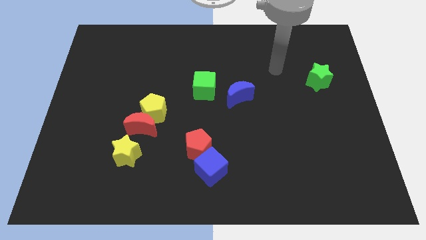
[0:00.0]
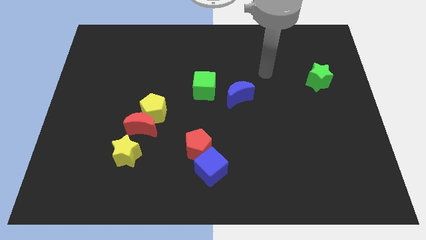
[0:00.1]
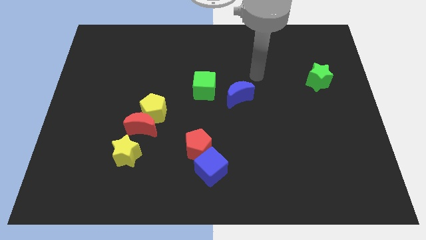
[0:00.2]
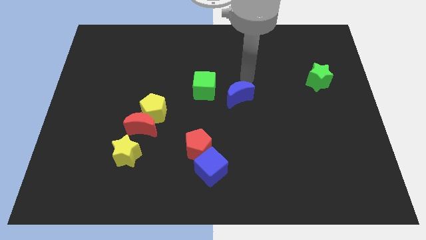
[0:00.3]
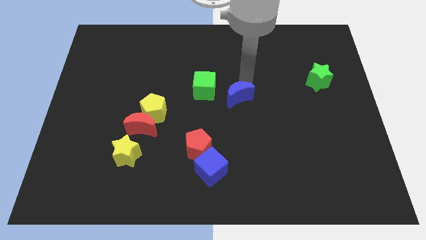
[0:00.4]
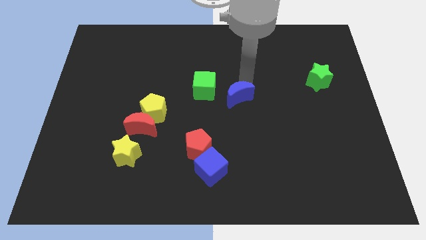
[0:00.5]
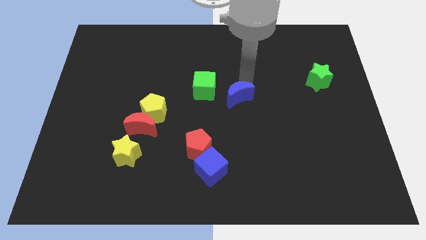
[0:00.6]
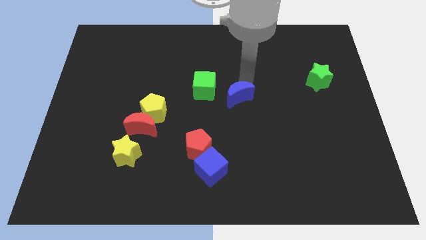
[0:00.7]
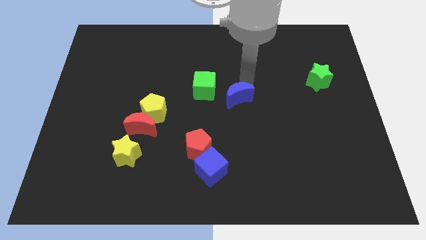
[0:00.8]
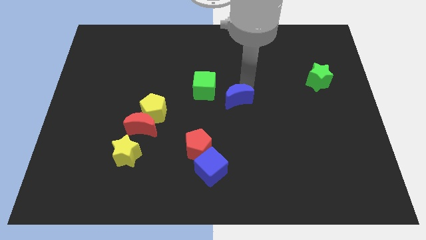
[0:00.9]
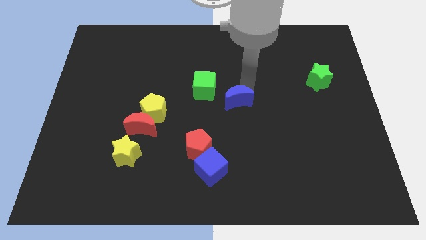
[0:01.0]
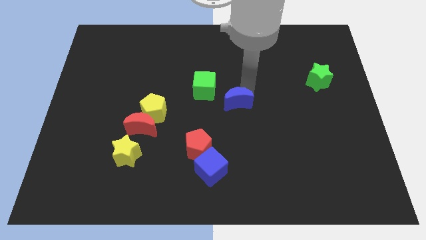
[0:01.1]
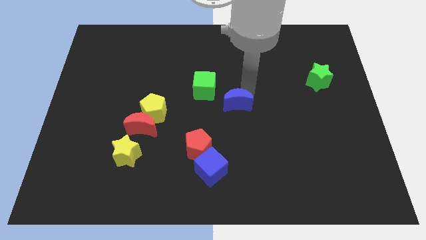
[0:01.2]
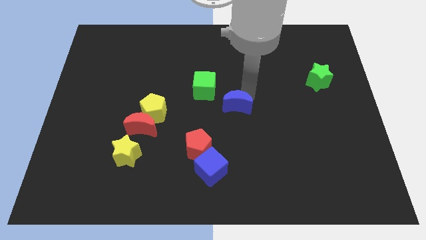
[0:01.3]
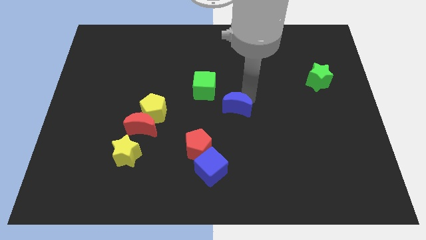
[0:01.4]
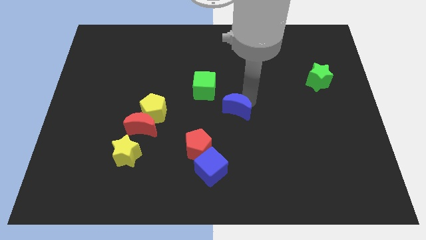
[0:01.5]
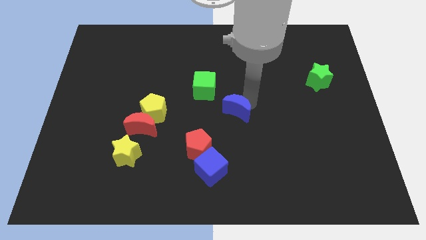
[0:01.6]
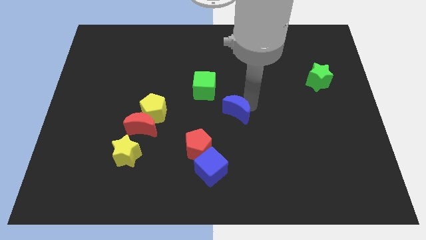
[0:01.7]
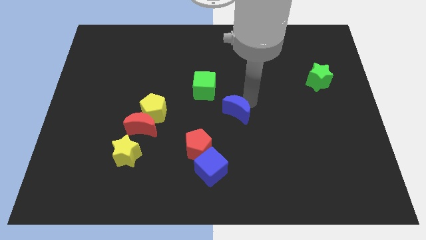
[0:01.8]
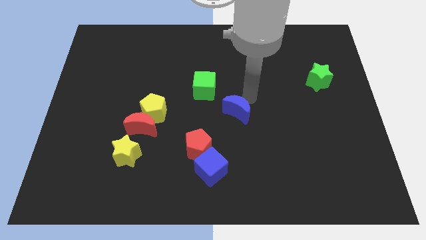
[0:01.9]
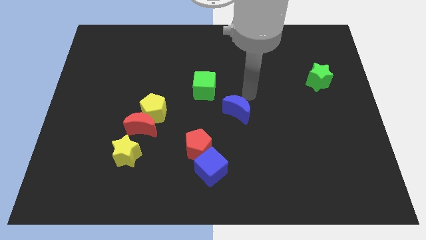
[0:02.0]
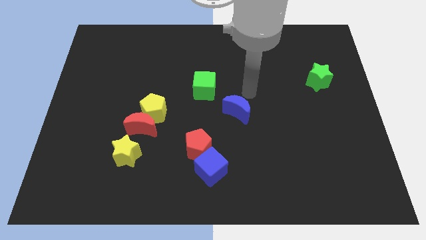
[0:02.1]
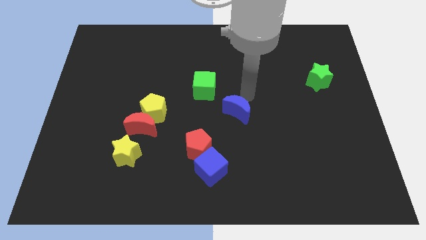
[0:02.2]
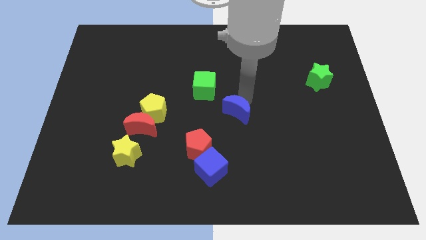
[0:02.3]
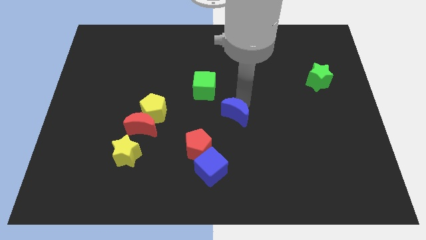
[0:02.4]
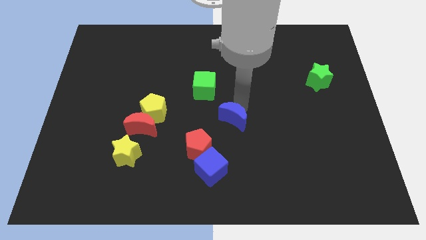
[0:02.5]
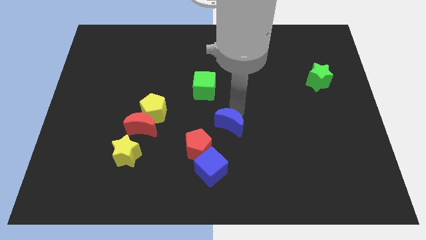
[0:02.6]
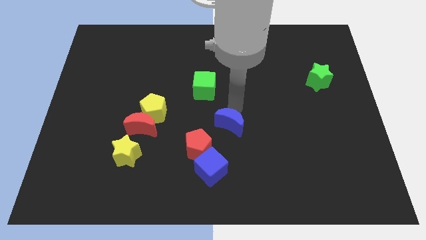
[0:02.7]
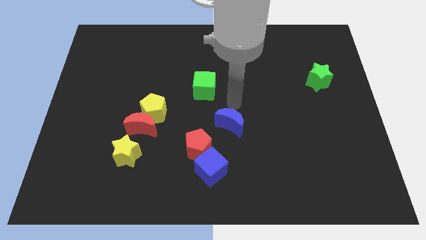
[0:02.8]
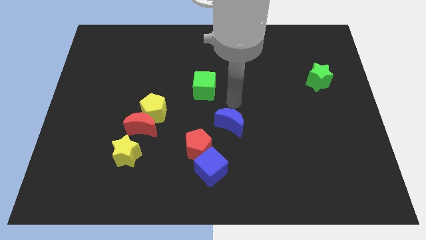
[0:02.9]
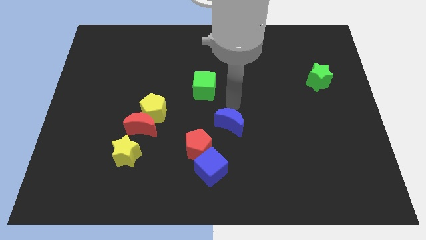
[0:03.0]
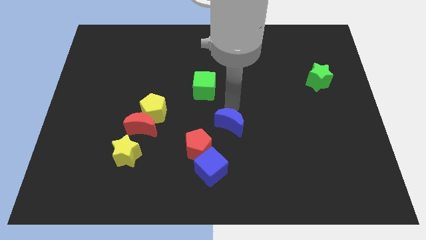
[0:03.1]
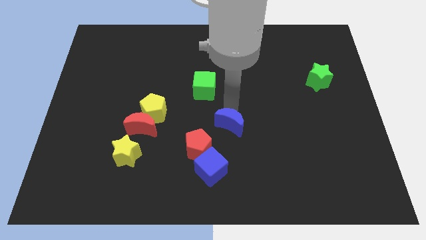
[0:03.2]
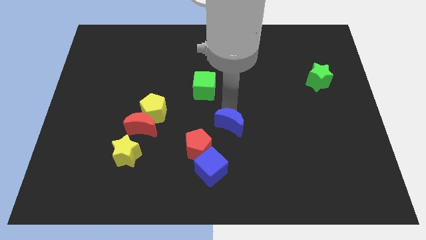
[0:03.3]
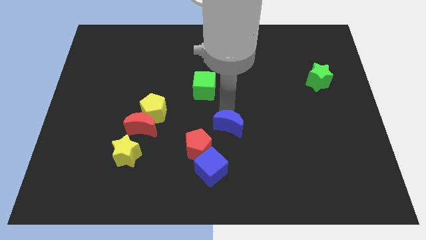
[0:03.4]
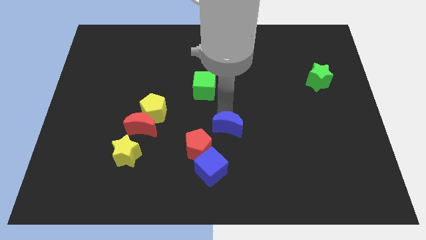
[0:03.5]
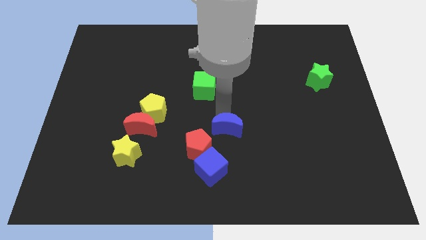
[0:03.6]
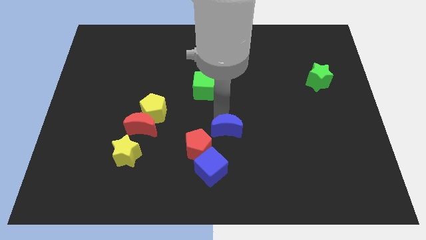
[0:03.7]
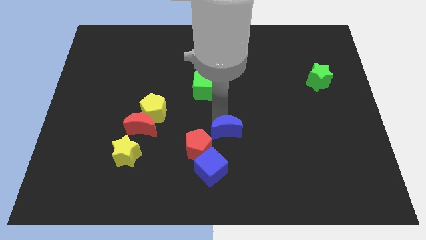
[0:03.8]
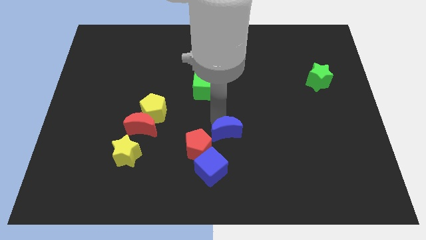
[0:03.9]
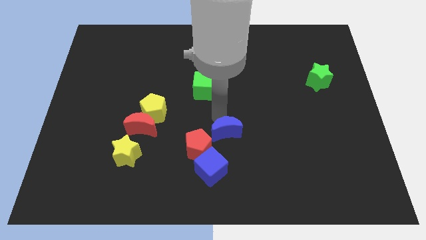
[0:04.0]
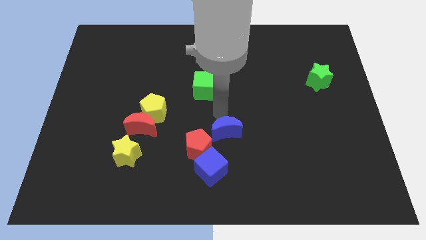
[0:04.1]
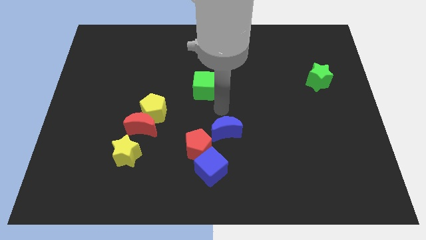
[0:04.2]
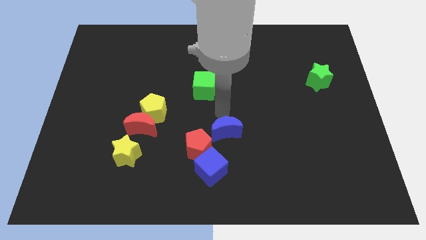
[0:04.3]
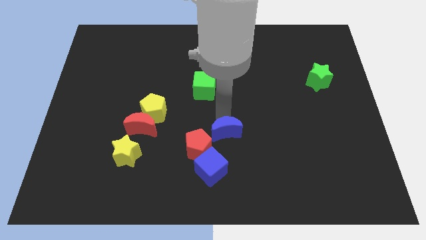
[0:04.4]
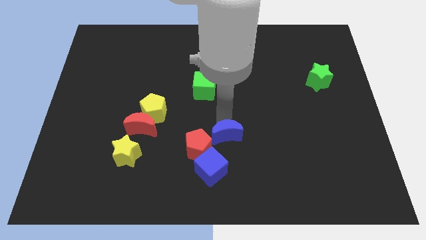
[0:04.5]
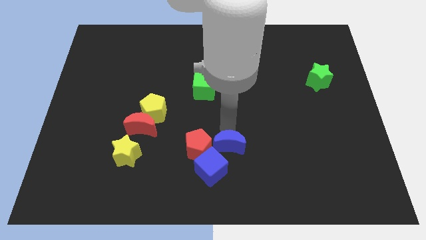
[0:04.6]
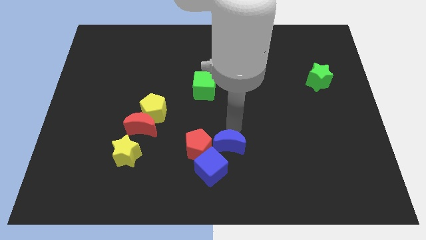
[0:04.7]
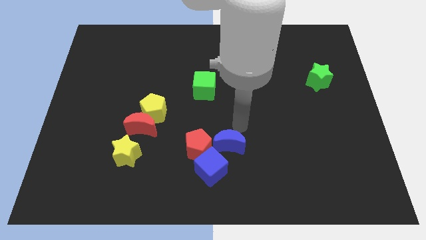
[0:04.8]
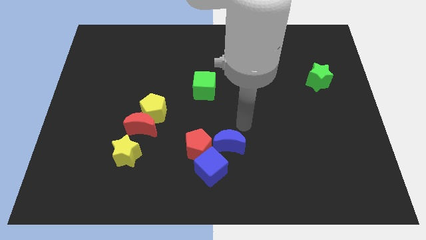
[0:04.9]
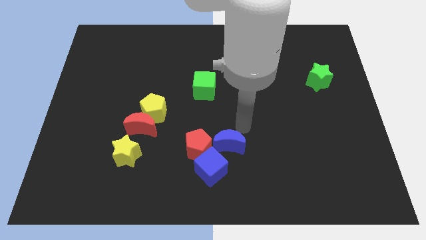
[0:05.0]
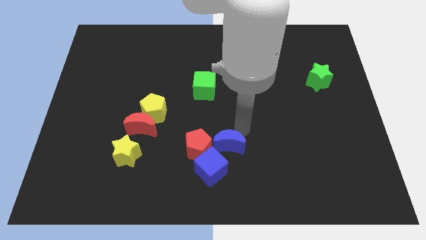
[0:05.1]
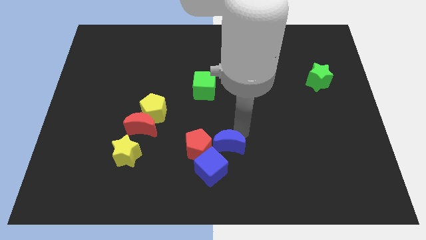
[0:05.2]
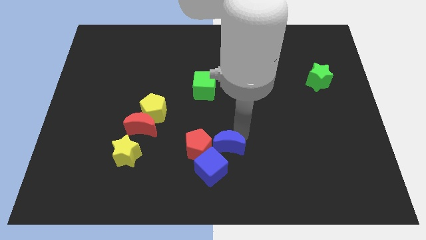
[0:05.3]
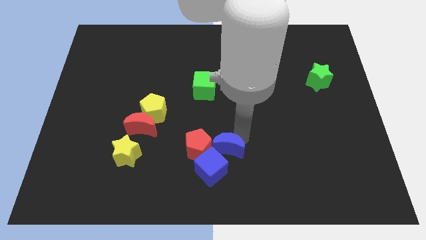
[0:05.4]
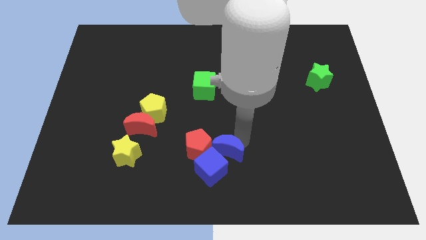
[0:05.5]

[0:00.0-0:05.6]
move the blue moon close to the blue cube

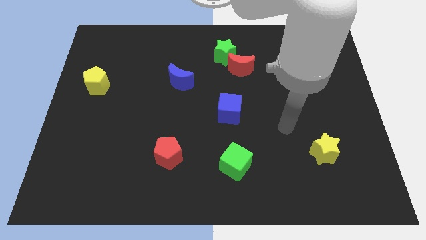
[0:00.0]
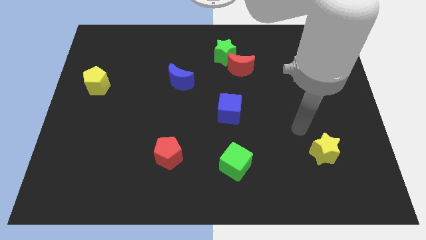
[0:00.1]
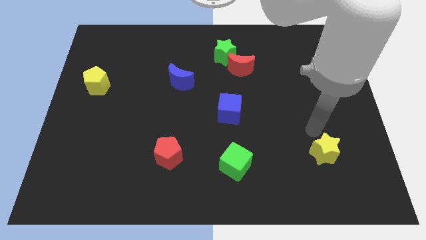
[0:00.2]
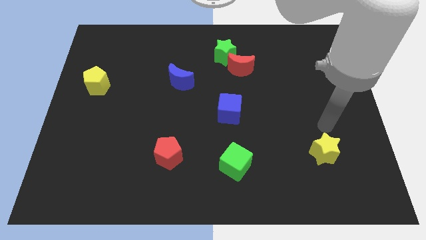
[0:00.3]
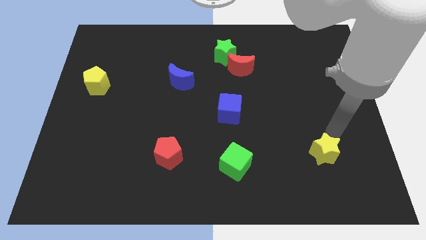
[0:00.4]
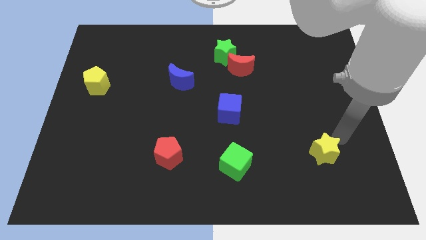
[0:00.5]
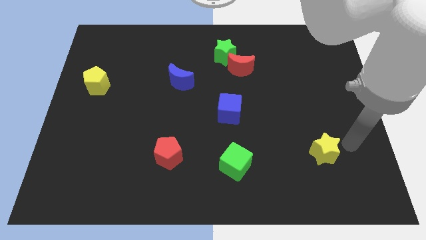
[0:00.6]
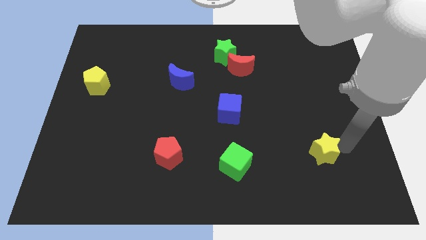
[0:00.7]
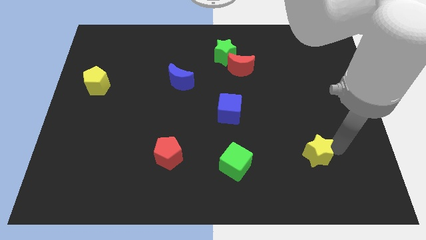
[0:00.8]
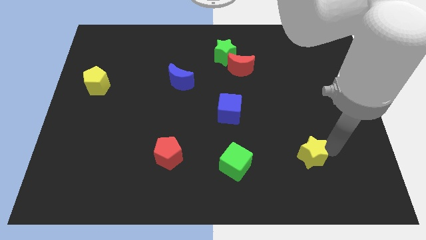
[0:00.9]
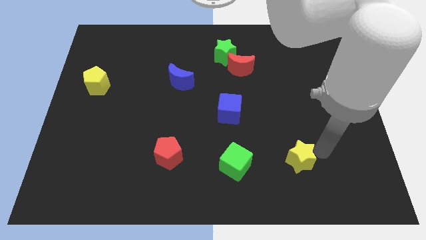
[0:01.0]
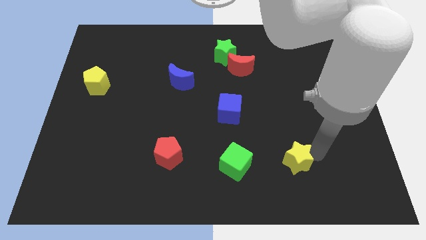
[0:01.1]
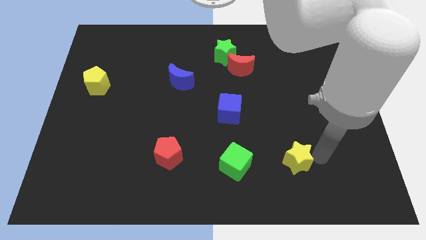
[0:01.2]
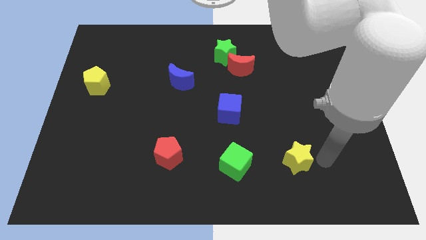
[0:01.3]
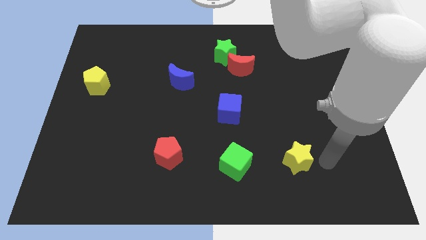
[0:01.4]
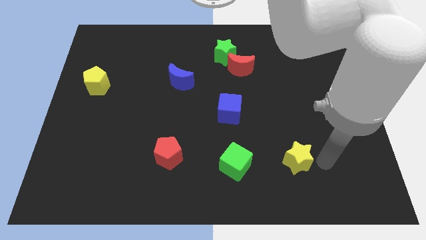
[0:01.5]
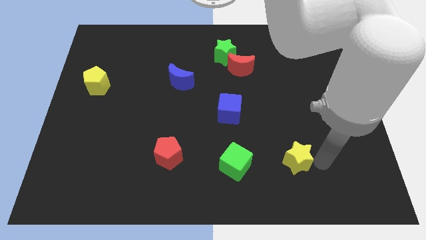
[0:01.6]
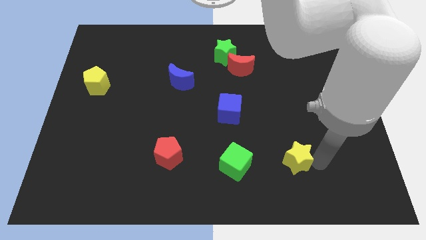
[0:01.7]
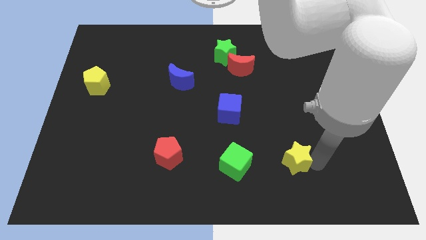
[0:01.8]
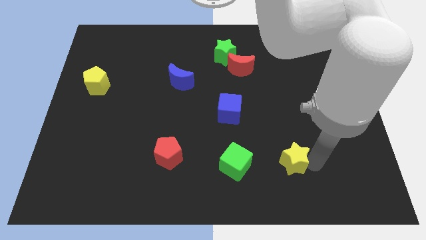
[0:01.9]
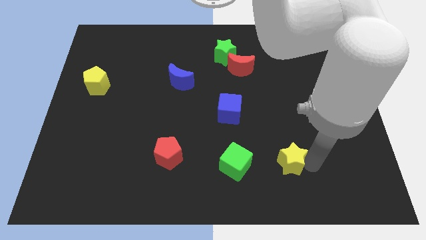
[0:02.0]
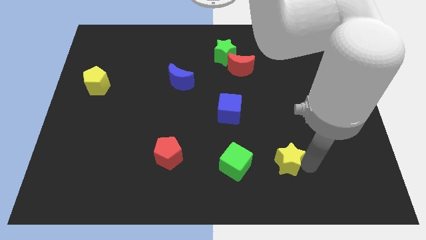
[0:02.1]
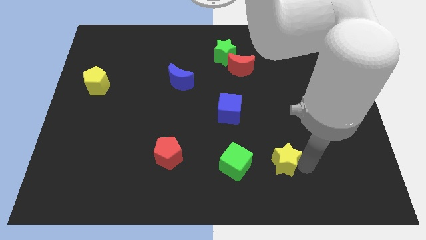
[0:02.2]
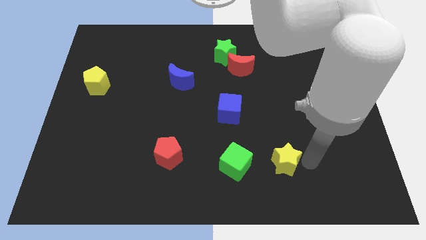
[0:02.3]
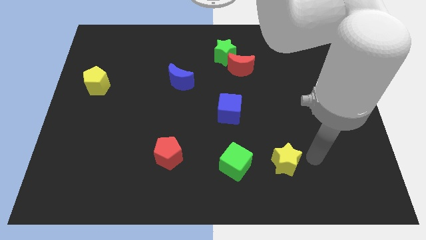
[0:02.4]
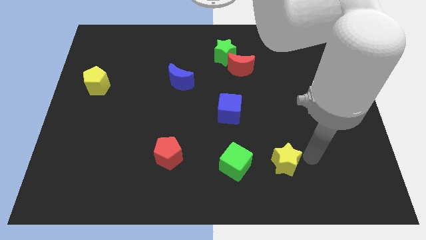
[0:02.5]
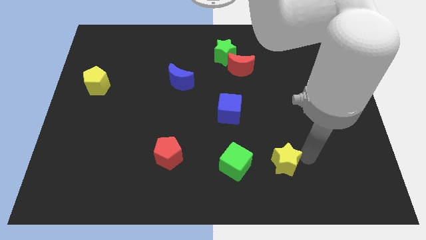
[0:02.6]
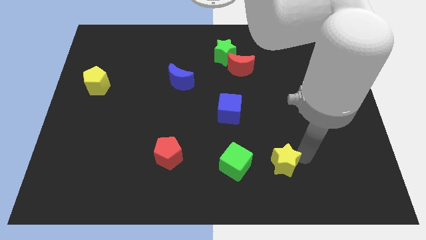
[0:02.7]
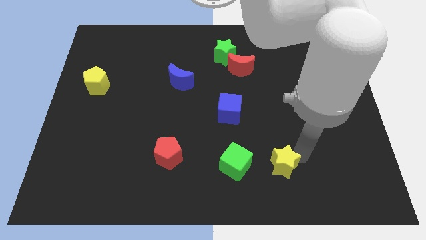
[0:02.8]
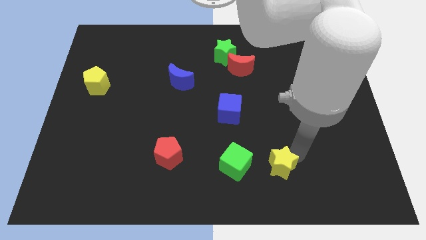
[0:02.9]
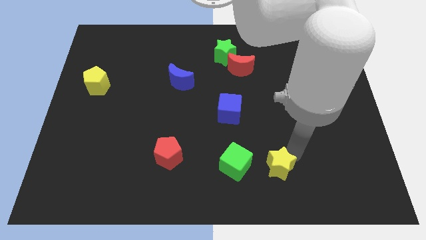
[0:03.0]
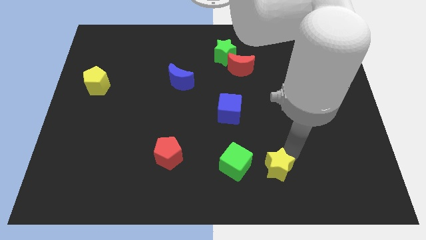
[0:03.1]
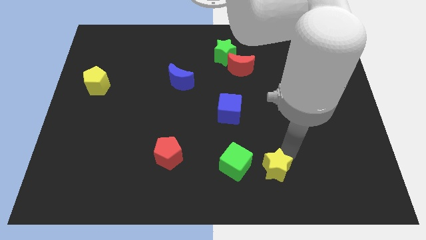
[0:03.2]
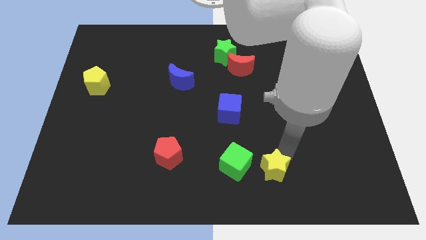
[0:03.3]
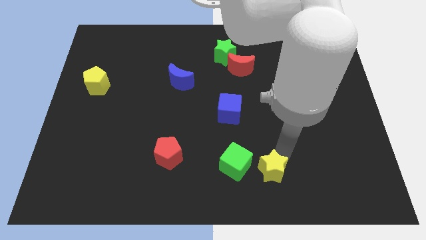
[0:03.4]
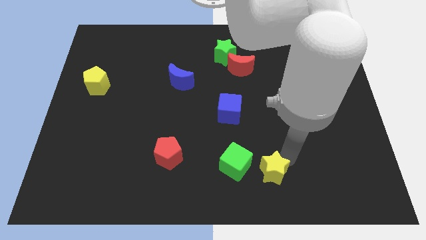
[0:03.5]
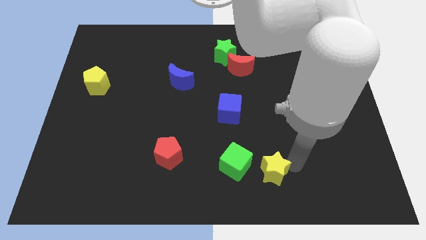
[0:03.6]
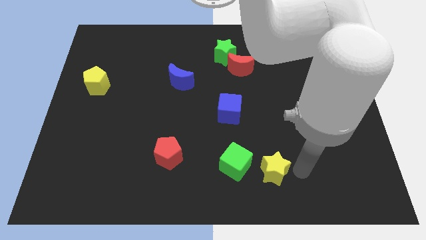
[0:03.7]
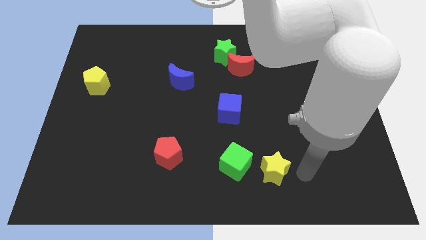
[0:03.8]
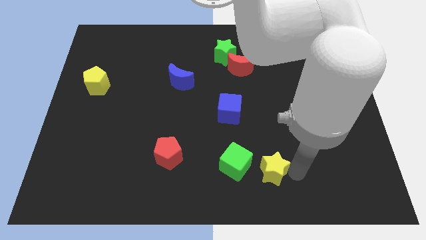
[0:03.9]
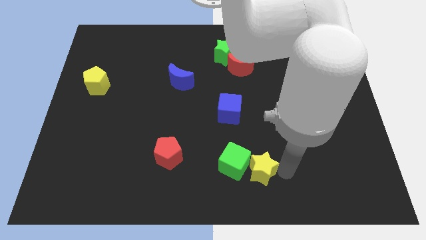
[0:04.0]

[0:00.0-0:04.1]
slide the yellow star close to the green cube
